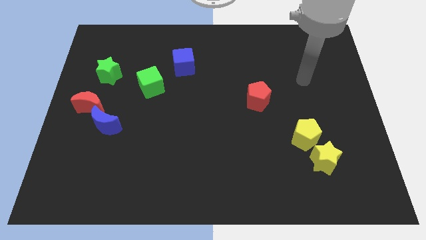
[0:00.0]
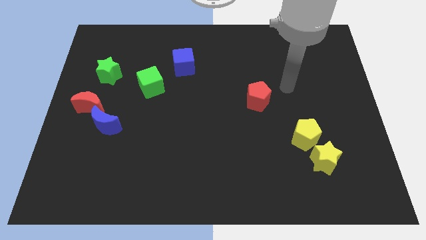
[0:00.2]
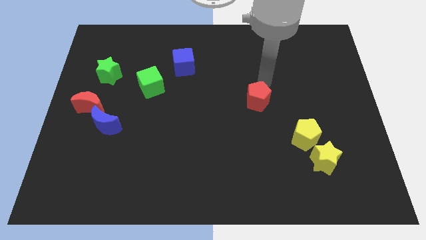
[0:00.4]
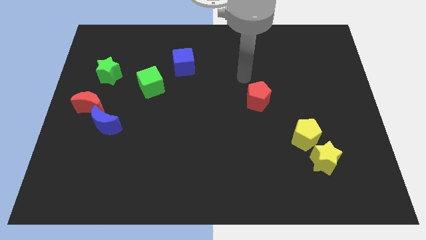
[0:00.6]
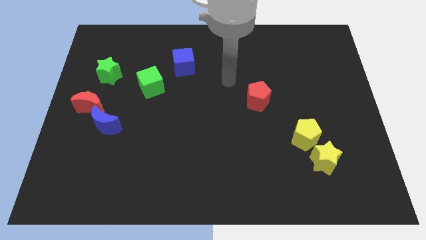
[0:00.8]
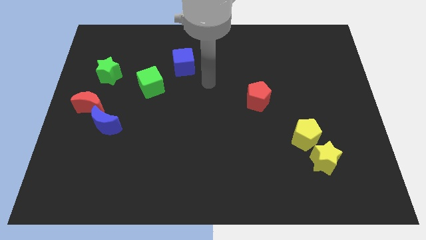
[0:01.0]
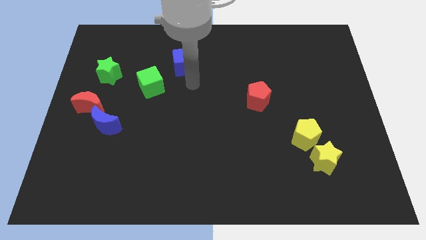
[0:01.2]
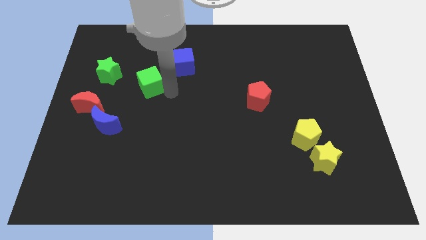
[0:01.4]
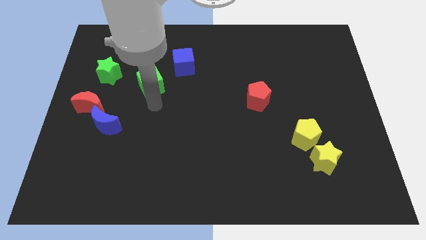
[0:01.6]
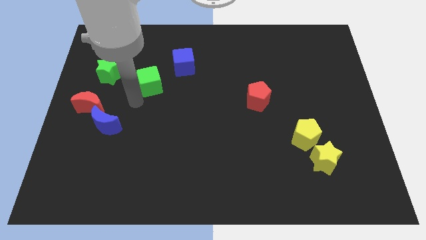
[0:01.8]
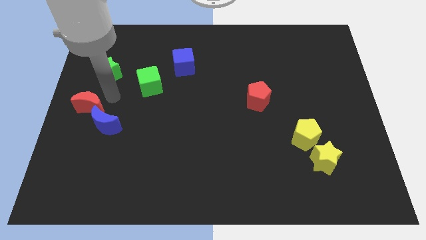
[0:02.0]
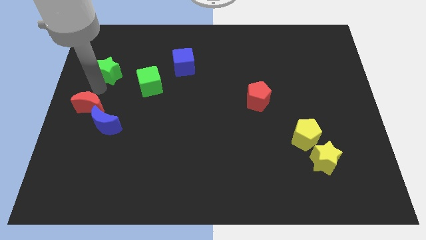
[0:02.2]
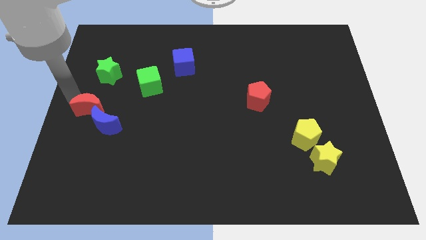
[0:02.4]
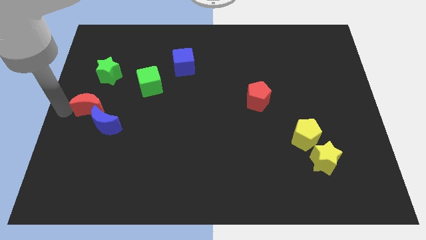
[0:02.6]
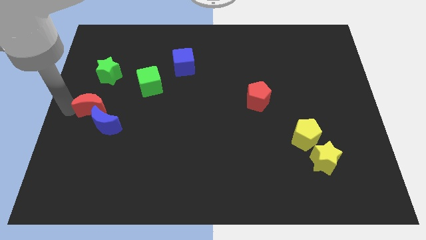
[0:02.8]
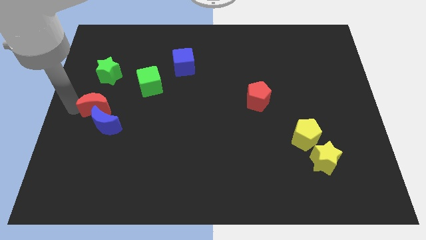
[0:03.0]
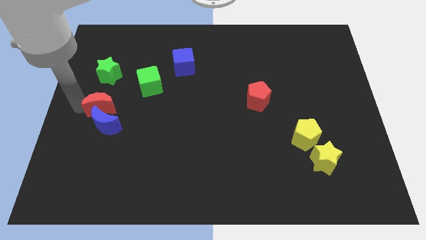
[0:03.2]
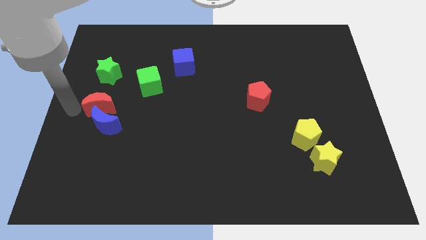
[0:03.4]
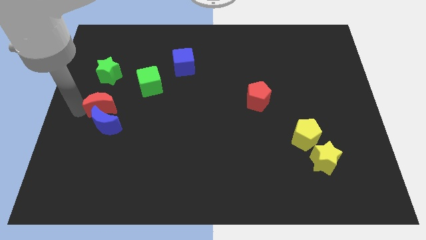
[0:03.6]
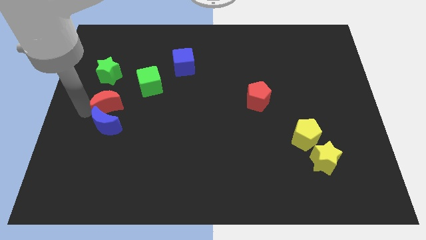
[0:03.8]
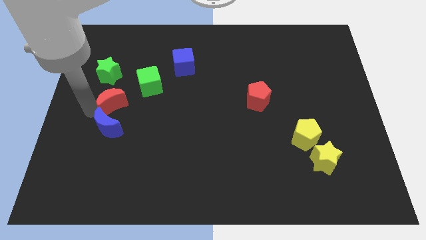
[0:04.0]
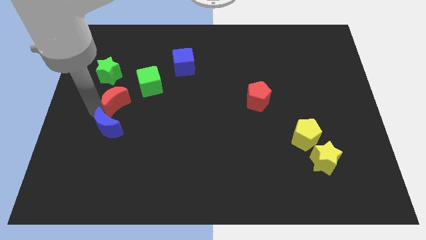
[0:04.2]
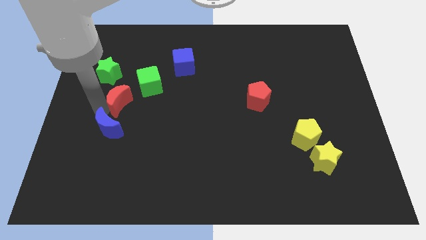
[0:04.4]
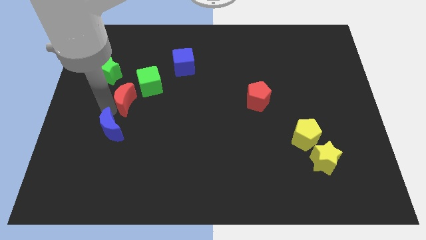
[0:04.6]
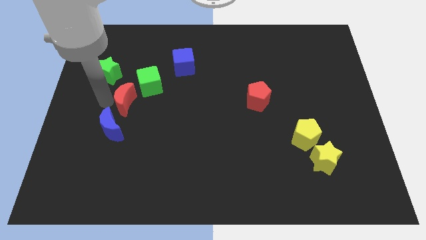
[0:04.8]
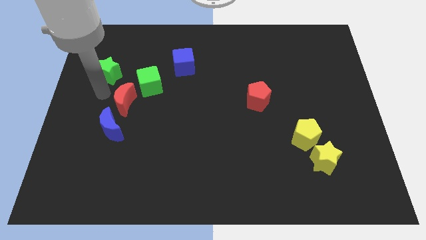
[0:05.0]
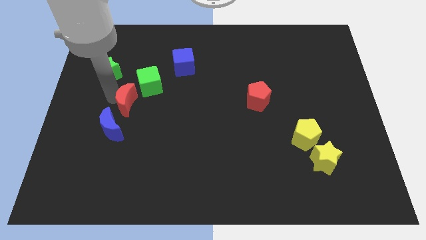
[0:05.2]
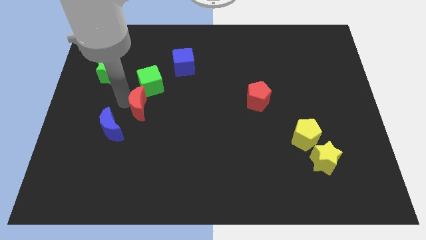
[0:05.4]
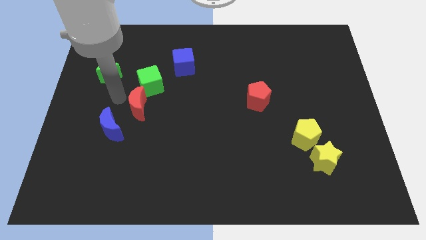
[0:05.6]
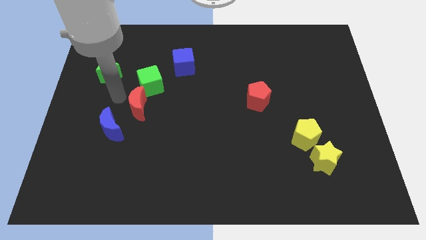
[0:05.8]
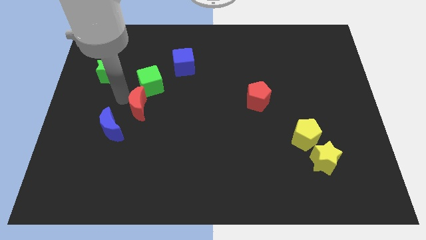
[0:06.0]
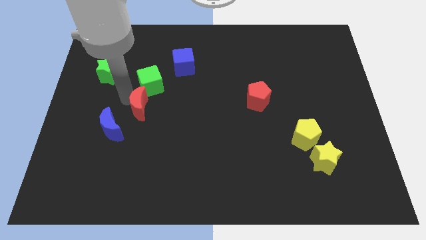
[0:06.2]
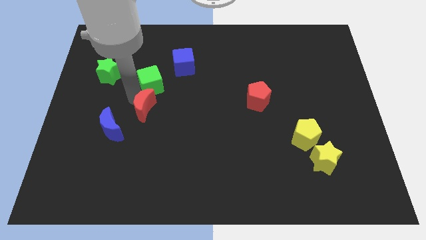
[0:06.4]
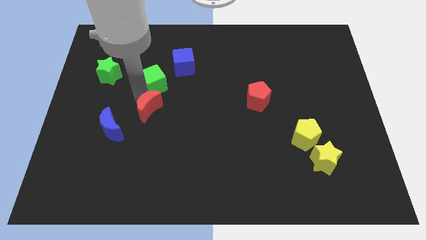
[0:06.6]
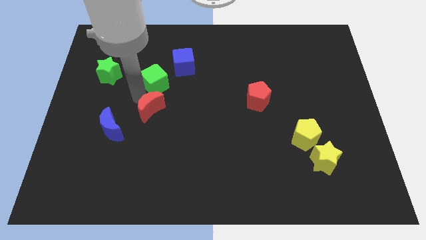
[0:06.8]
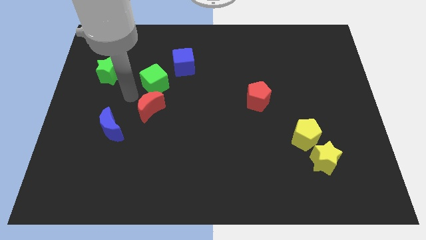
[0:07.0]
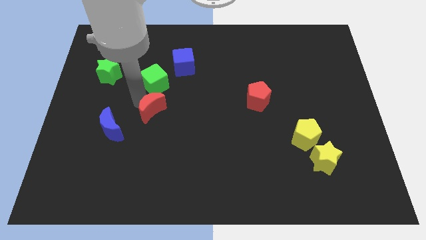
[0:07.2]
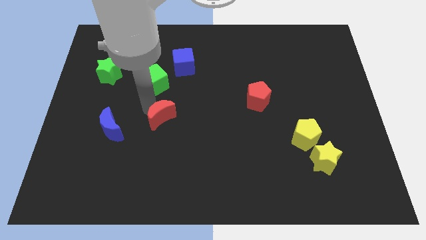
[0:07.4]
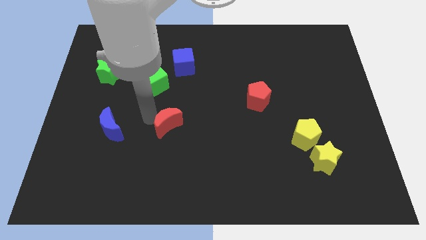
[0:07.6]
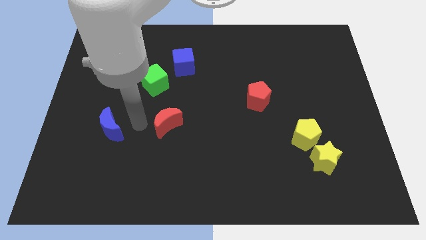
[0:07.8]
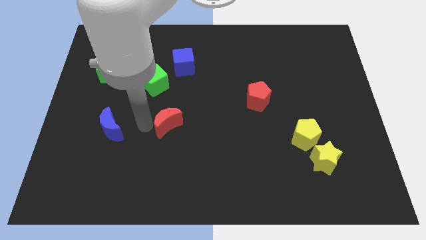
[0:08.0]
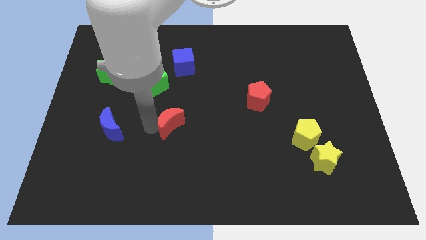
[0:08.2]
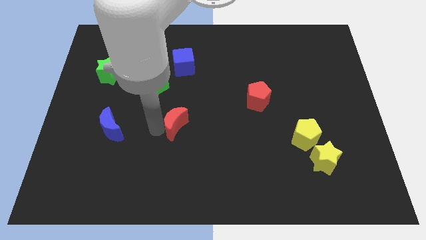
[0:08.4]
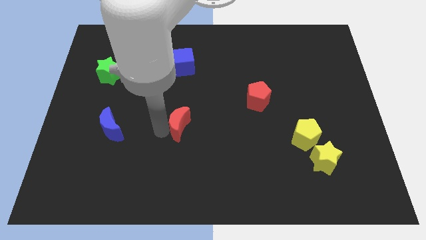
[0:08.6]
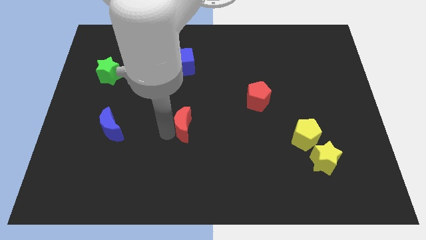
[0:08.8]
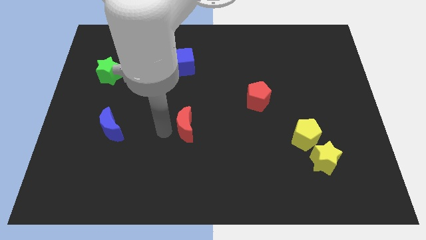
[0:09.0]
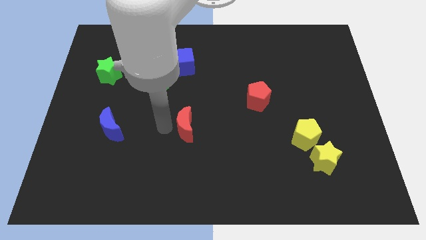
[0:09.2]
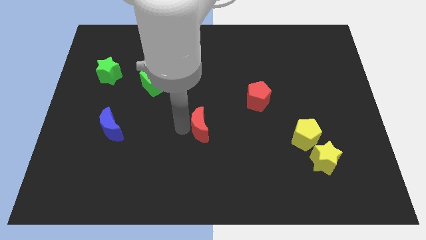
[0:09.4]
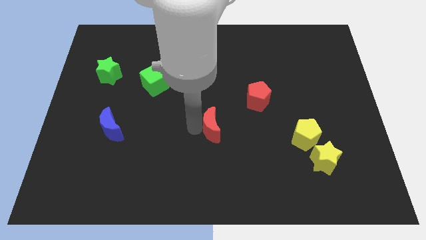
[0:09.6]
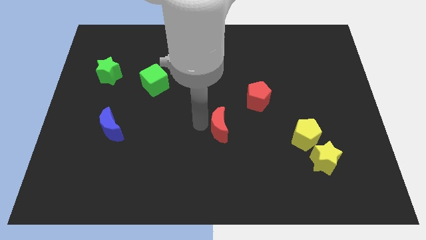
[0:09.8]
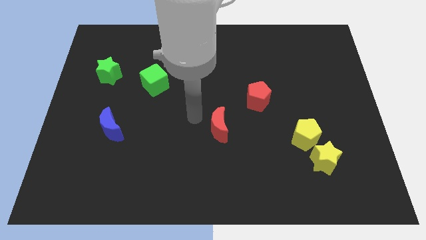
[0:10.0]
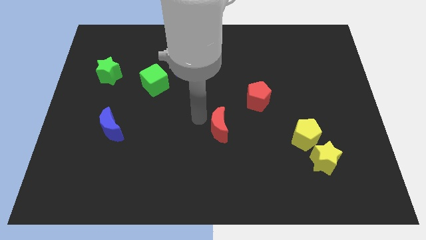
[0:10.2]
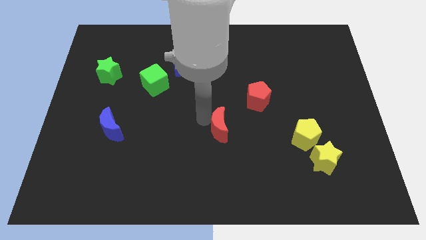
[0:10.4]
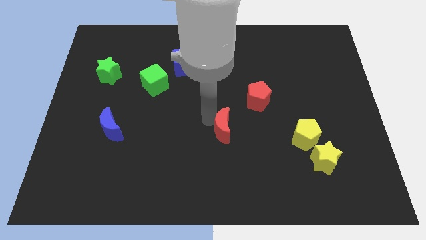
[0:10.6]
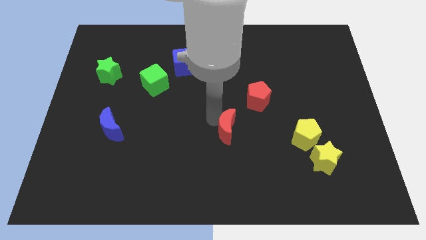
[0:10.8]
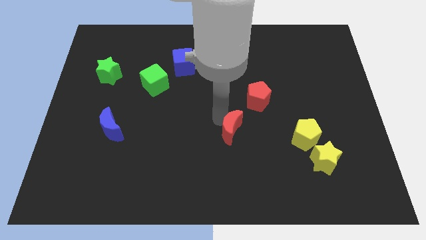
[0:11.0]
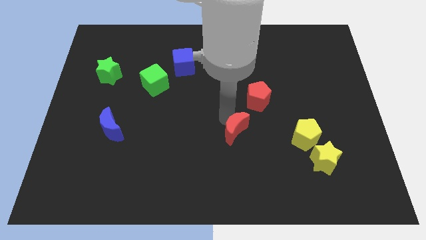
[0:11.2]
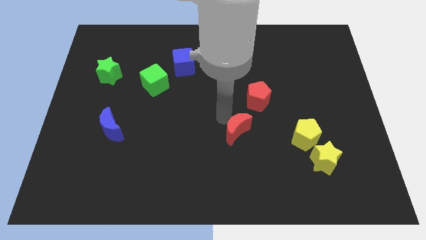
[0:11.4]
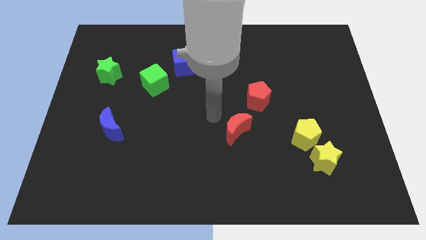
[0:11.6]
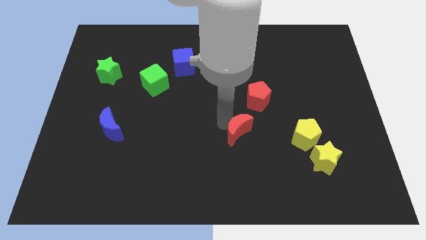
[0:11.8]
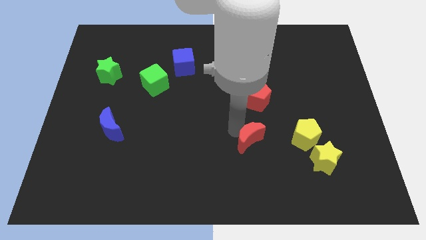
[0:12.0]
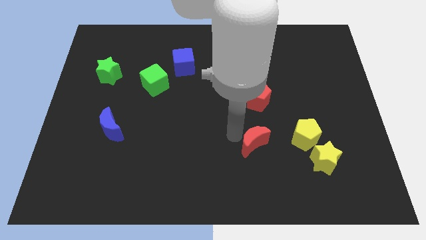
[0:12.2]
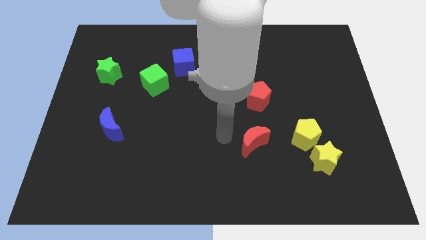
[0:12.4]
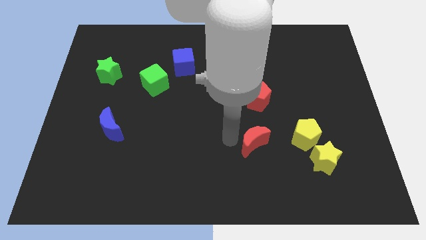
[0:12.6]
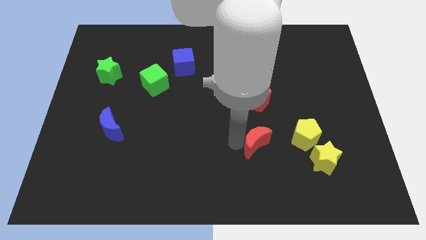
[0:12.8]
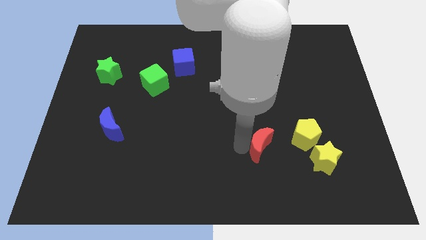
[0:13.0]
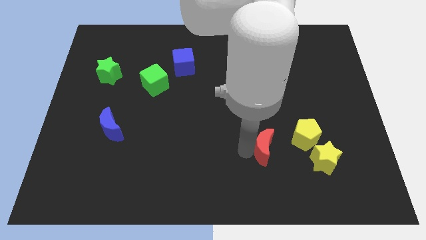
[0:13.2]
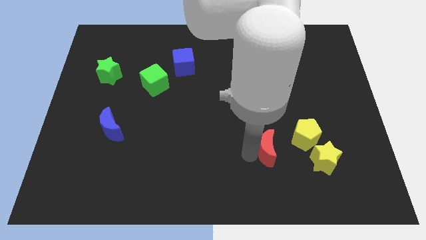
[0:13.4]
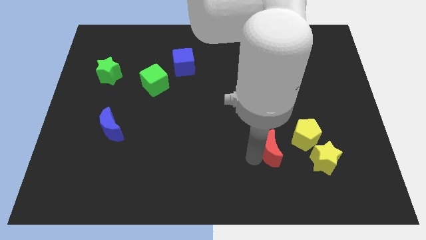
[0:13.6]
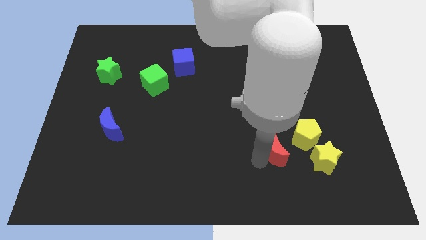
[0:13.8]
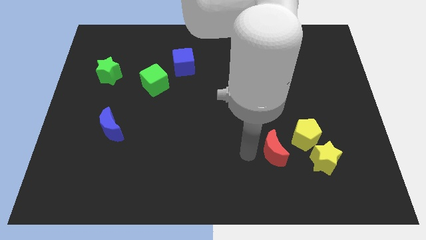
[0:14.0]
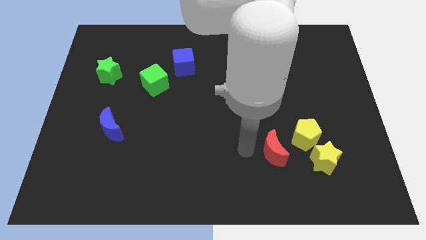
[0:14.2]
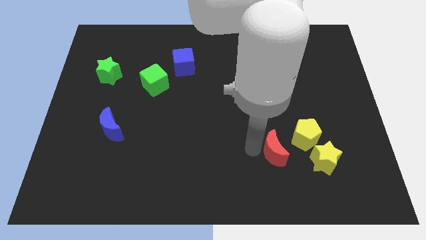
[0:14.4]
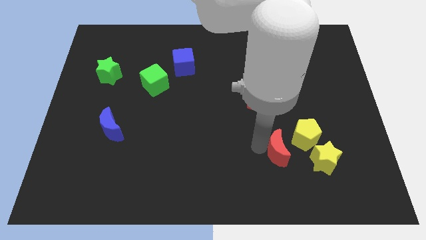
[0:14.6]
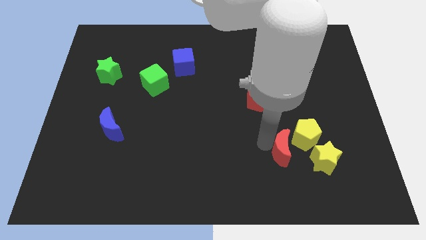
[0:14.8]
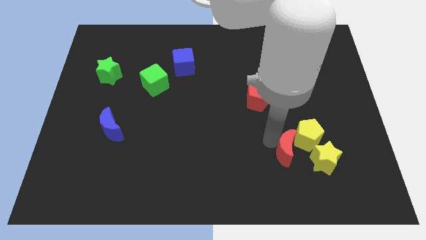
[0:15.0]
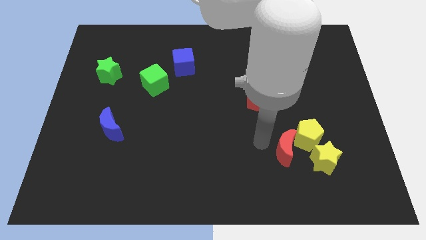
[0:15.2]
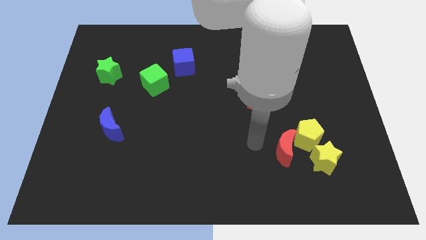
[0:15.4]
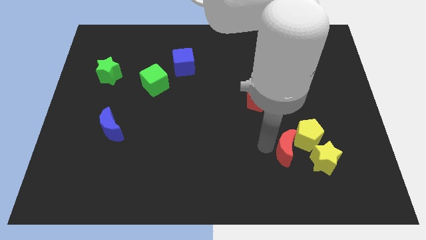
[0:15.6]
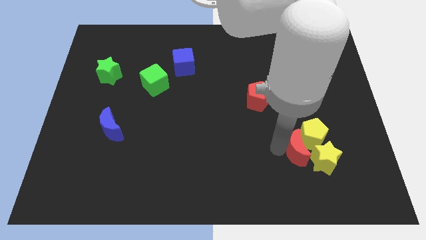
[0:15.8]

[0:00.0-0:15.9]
slide the red moon to the yellow star
